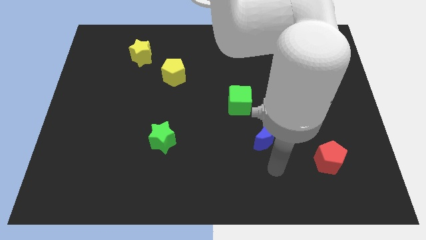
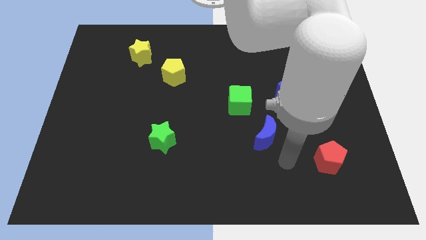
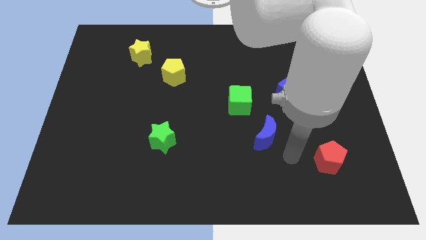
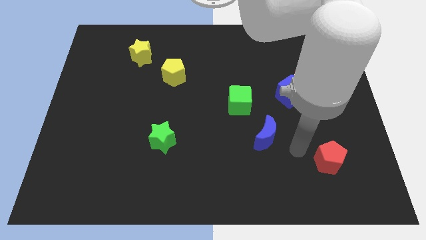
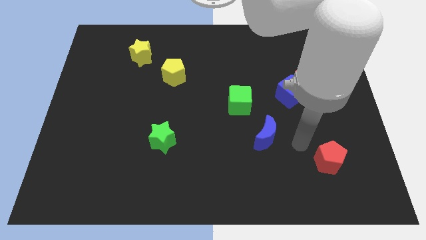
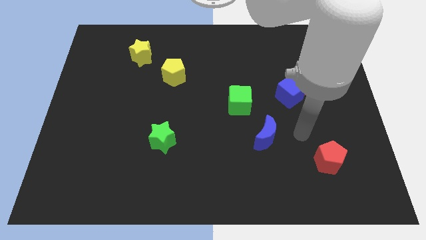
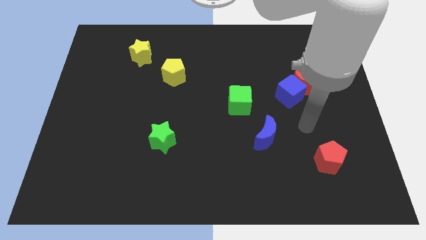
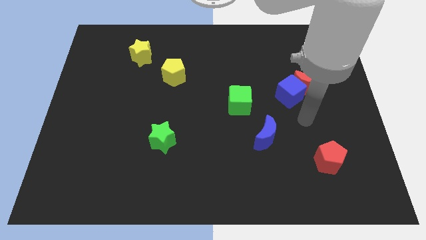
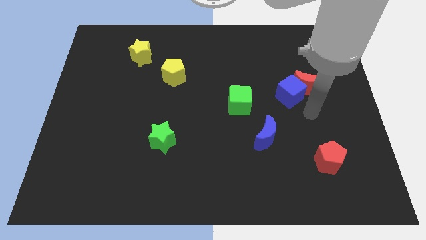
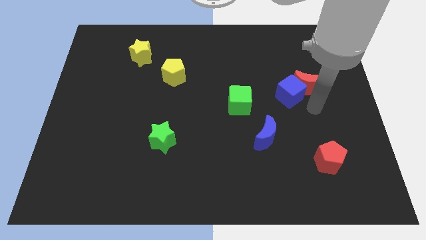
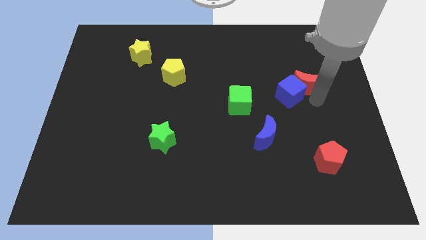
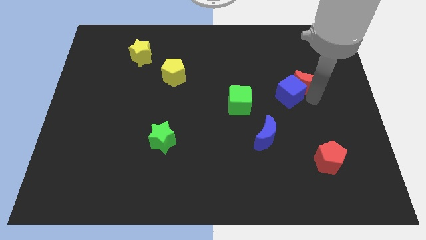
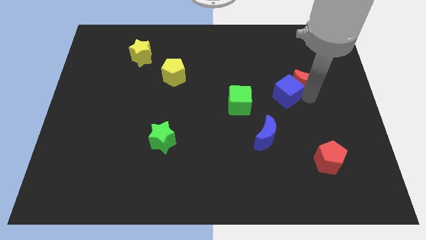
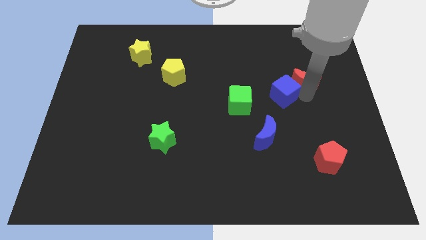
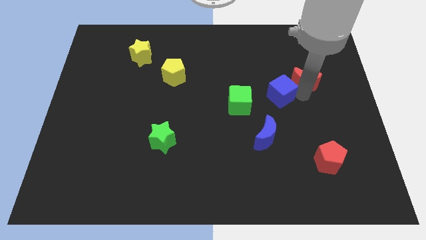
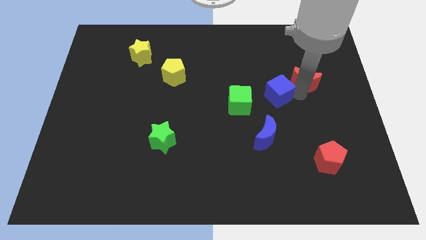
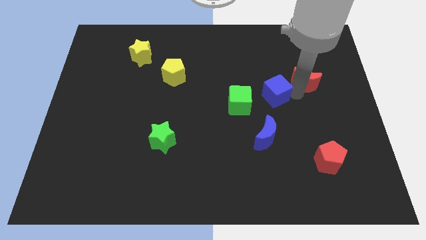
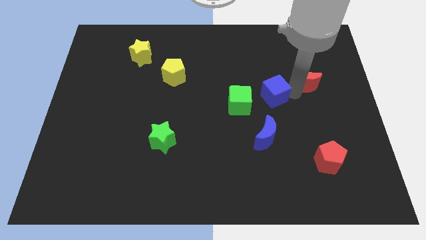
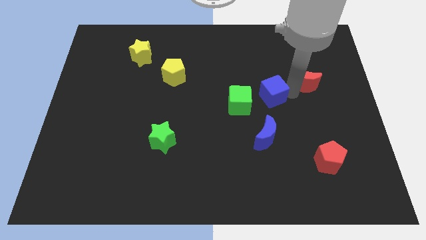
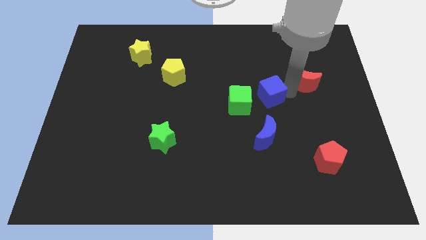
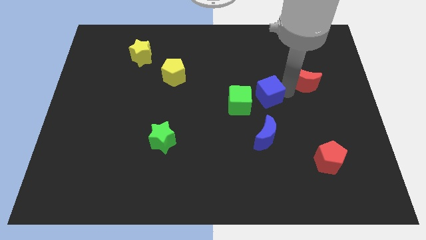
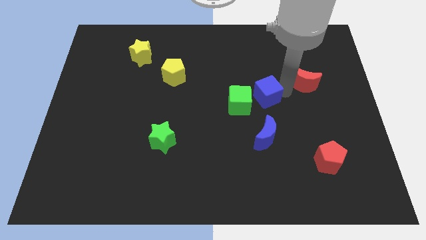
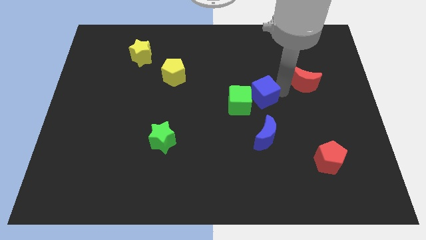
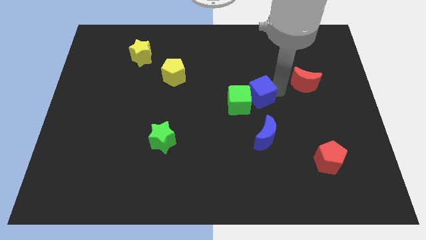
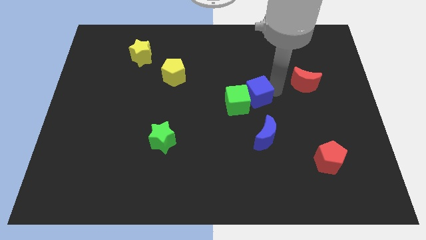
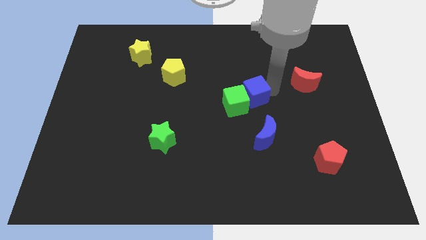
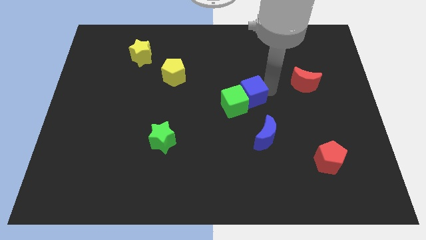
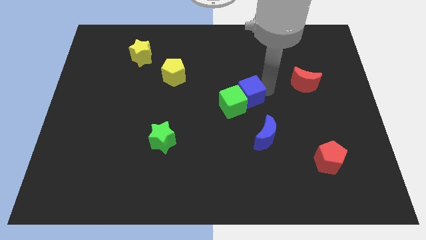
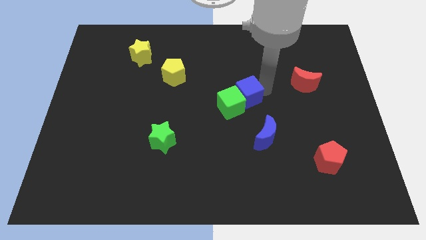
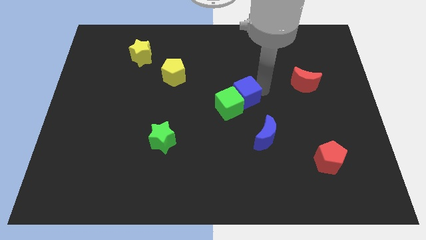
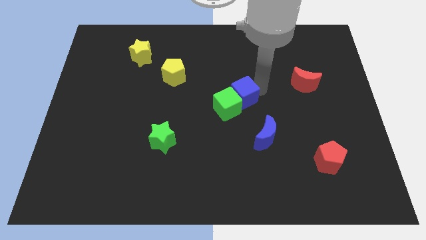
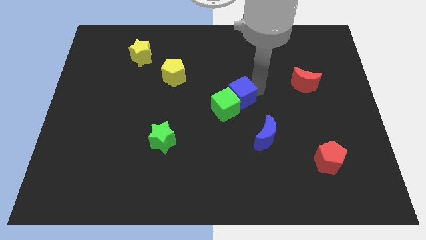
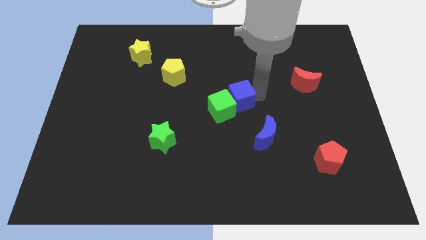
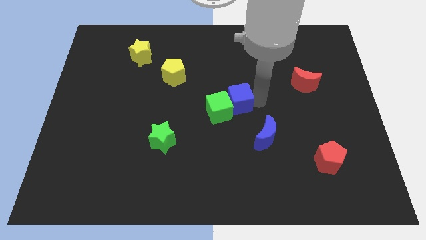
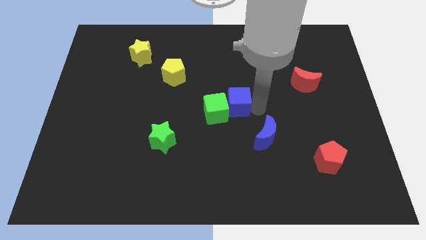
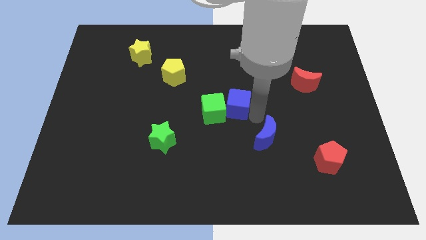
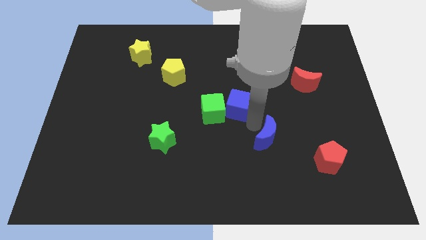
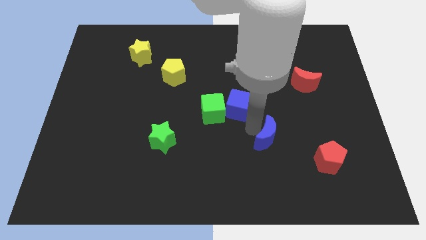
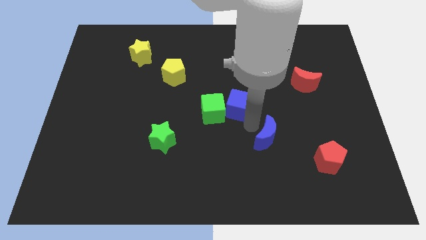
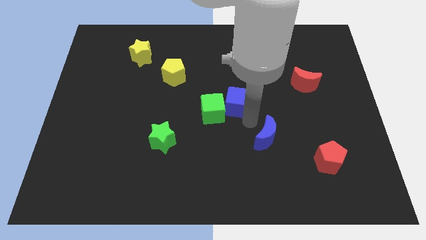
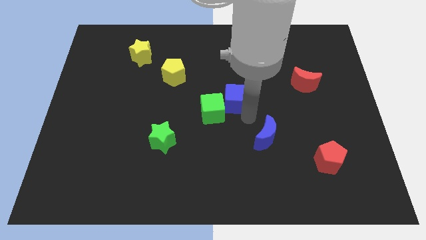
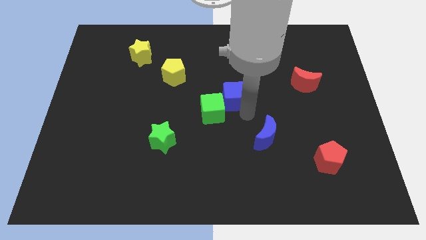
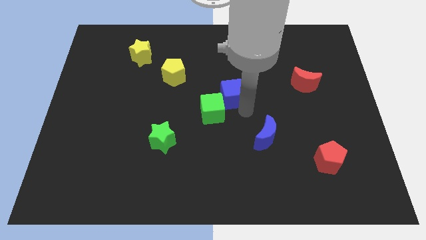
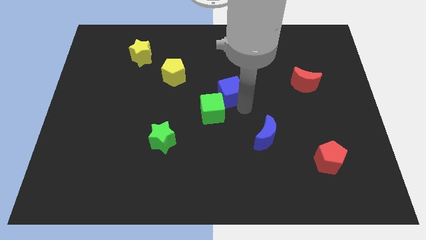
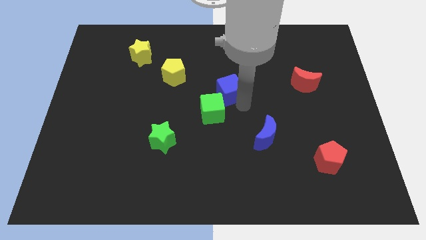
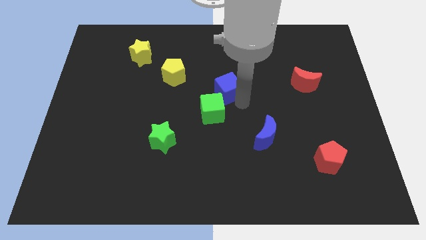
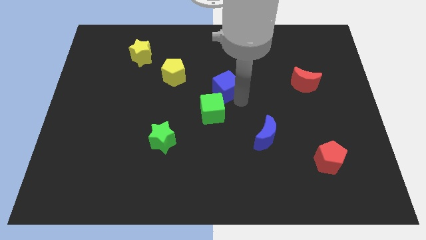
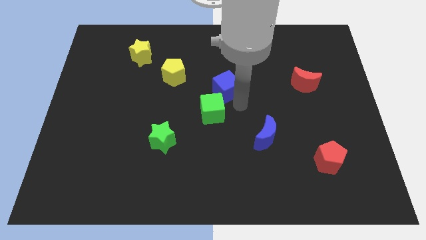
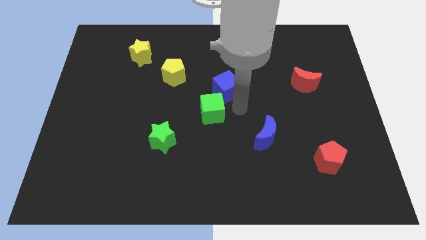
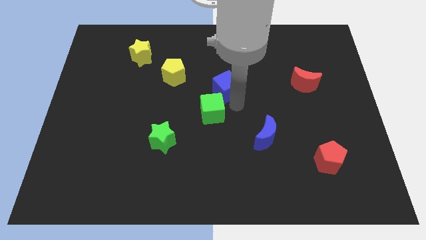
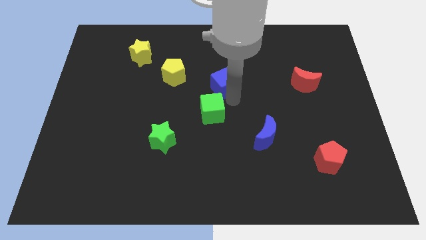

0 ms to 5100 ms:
push the blue cube to the right of the yellow pentagon

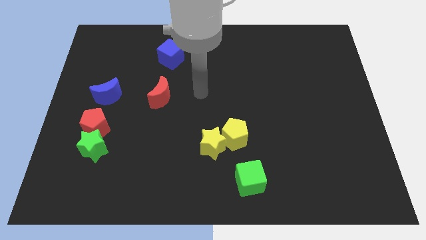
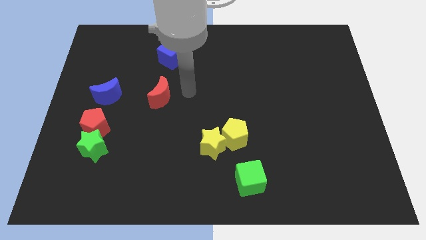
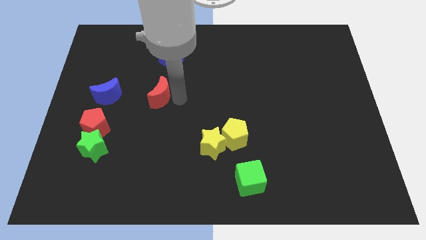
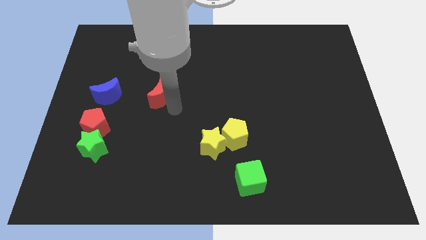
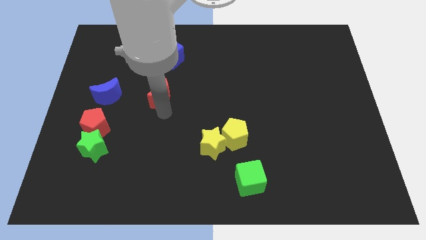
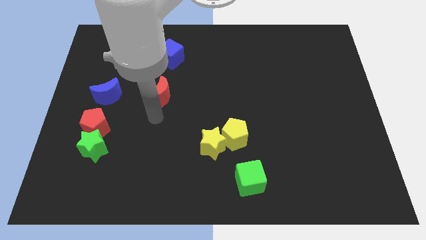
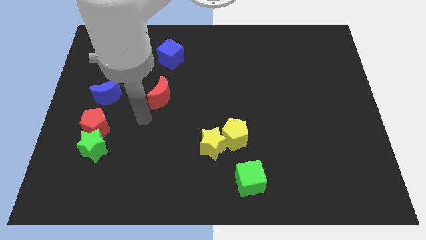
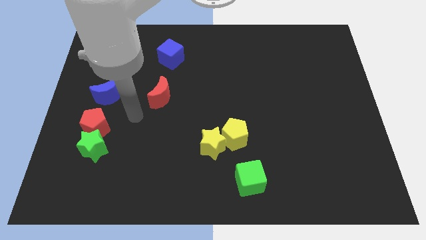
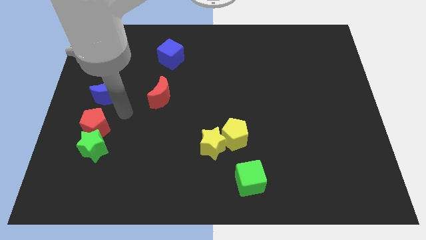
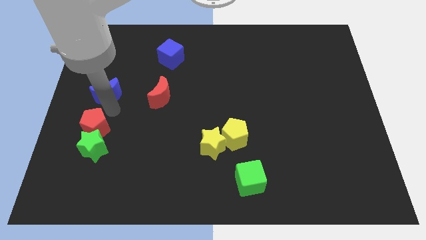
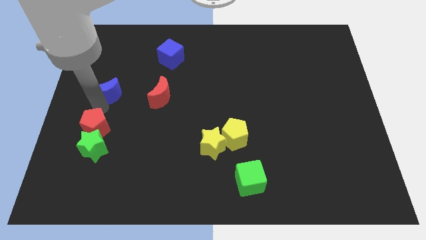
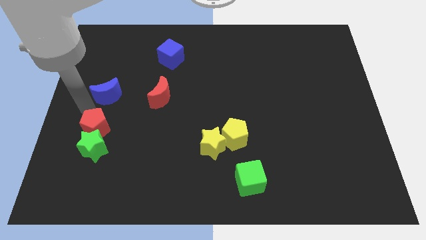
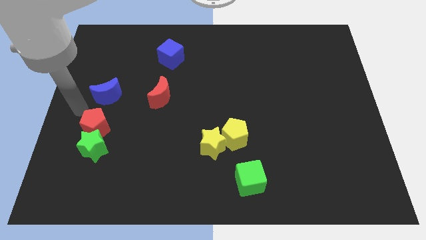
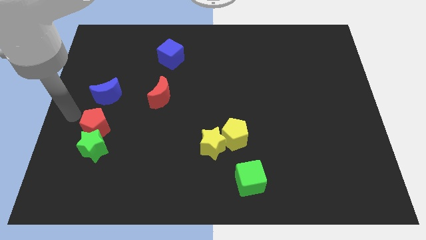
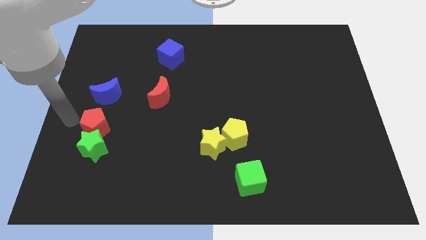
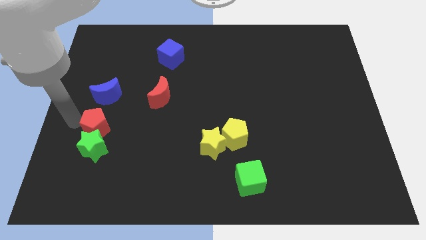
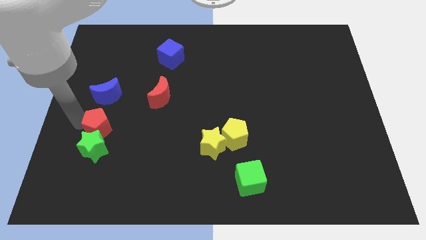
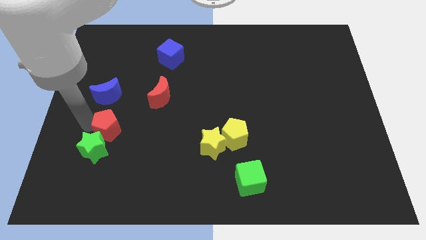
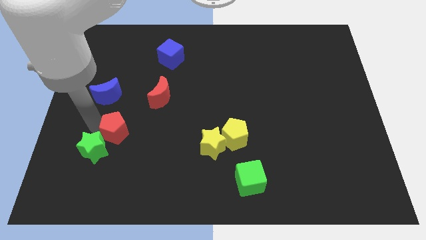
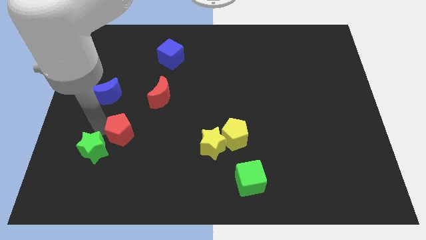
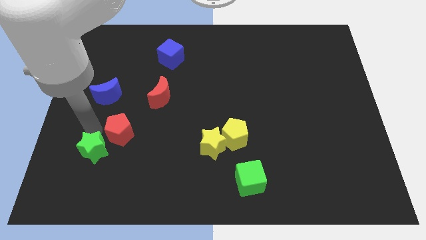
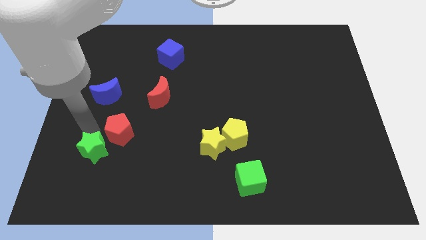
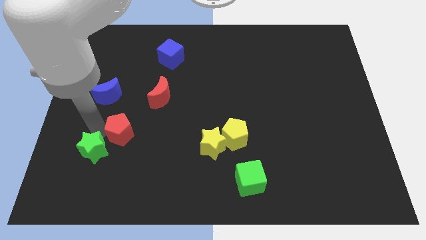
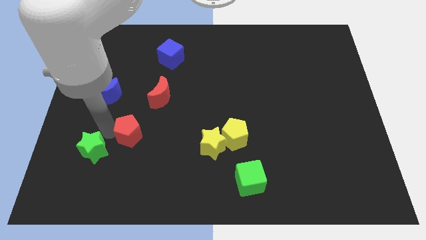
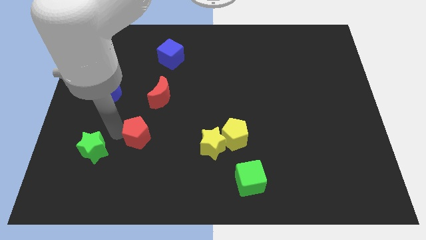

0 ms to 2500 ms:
put the red pentagon to the bottom side of the red moon

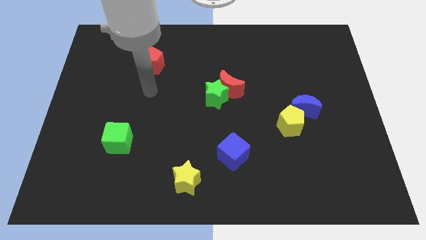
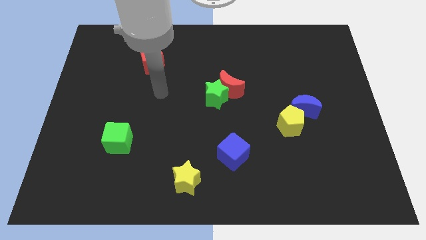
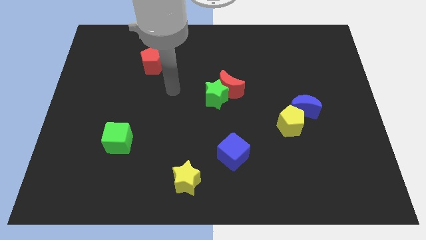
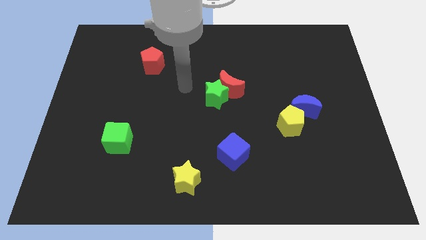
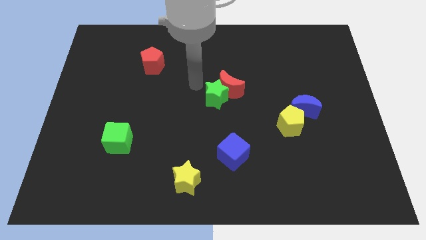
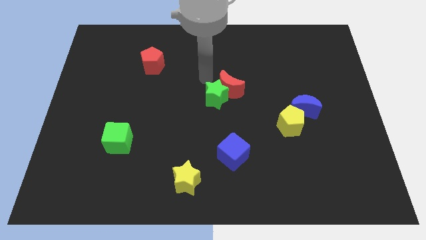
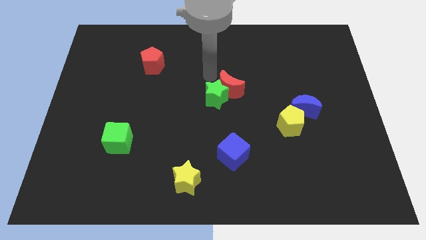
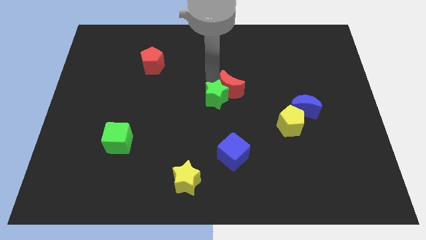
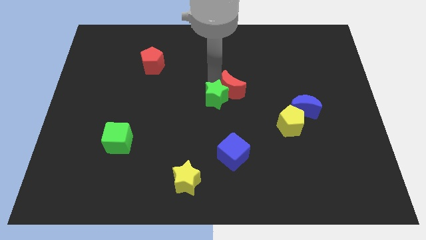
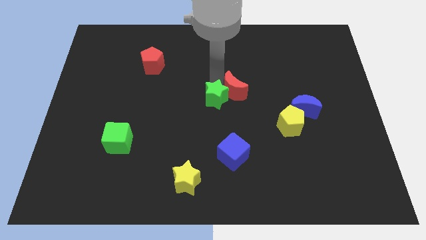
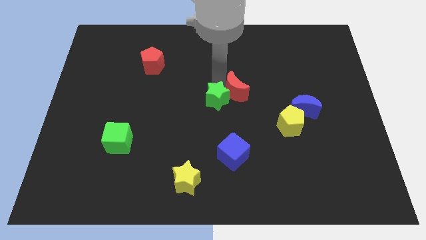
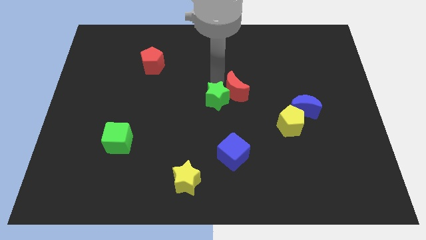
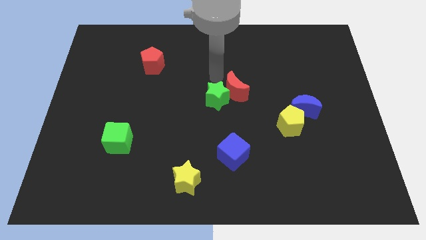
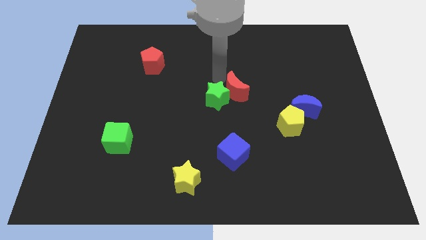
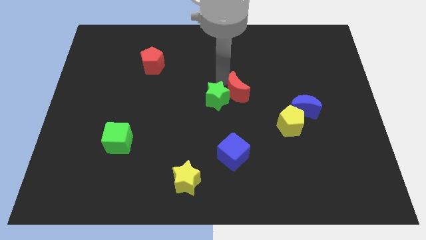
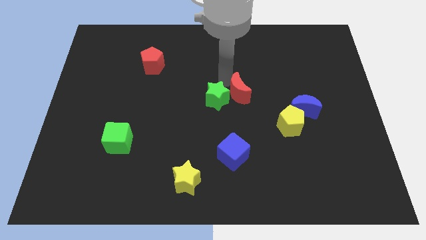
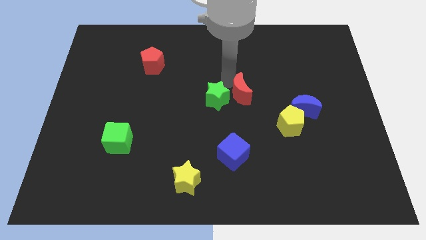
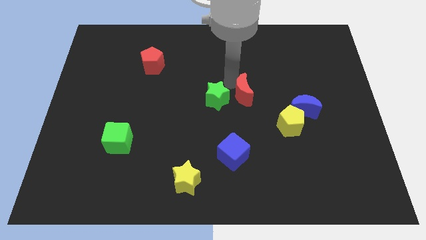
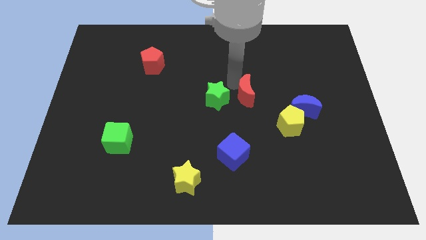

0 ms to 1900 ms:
move the red moon to the left side of the blue moon
